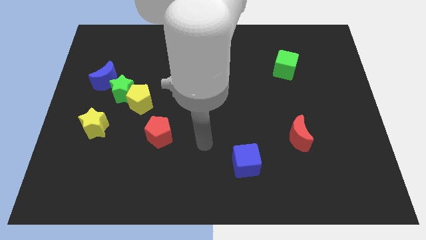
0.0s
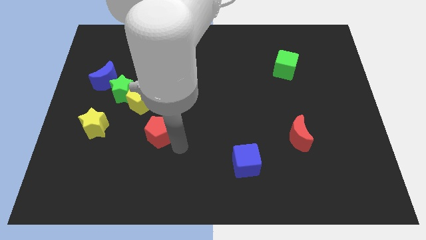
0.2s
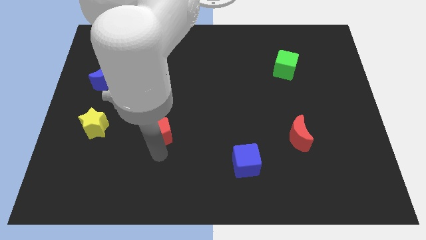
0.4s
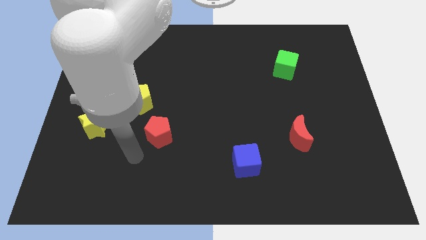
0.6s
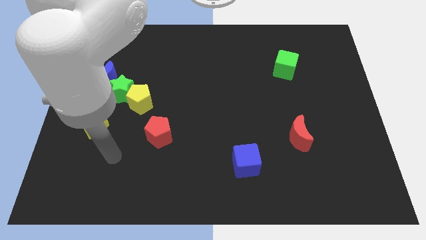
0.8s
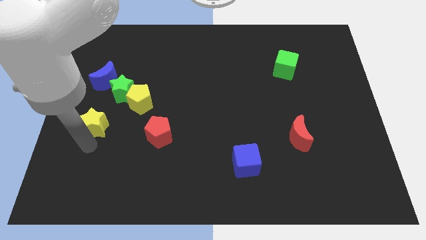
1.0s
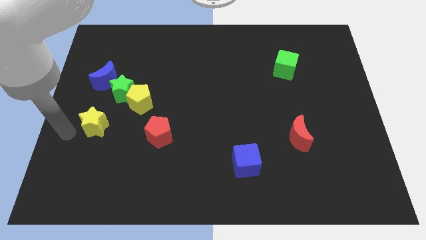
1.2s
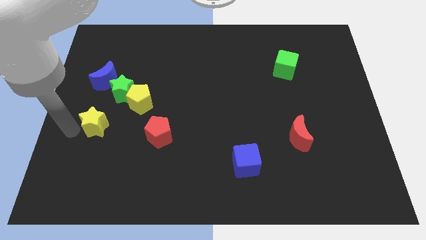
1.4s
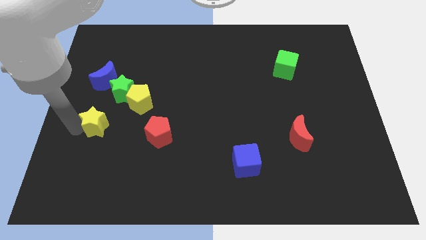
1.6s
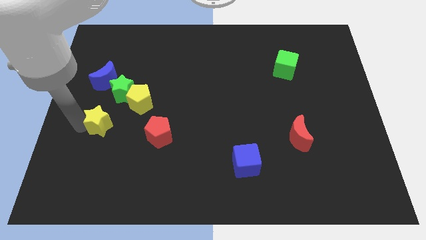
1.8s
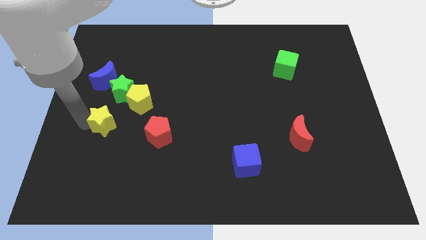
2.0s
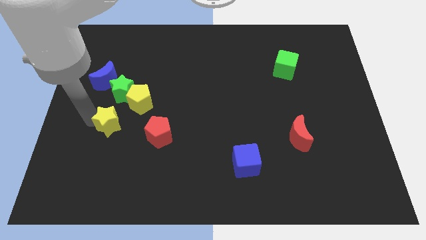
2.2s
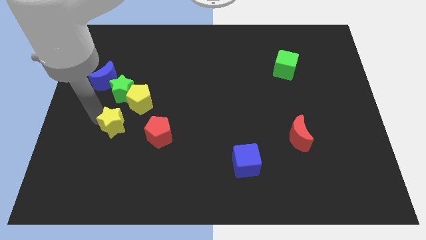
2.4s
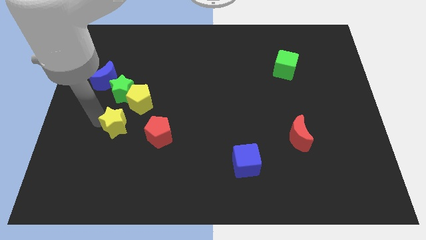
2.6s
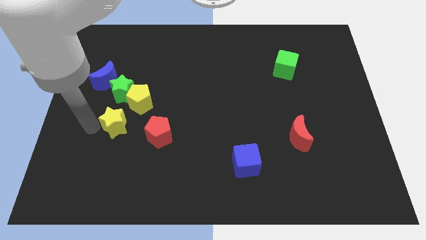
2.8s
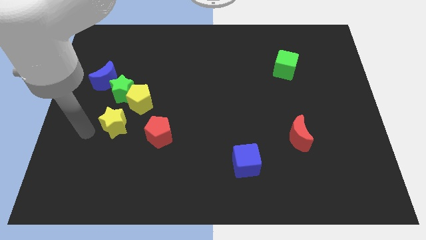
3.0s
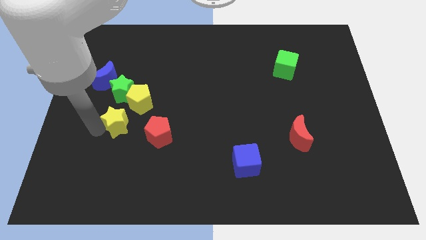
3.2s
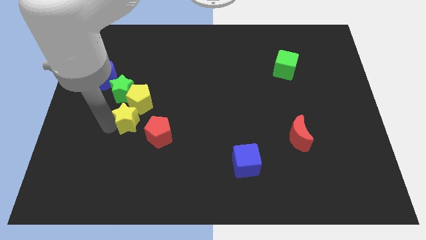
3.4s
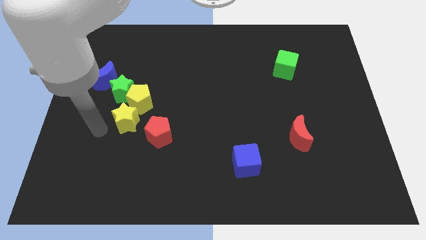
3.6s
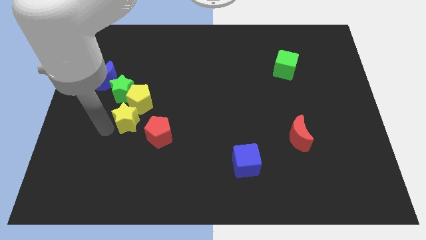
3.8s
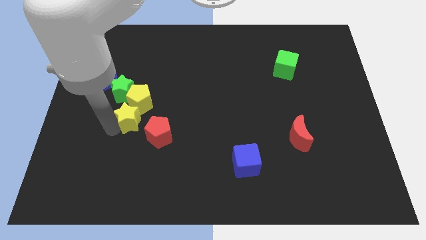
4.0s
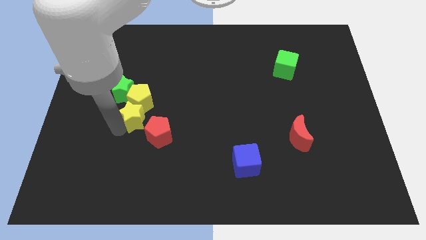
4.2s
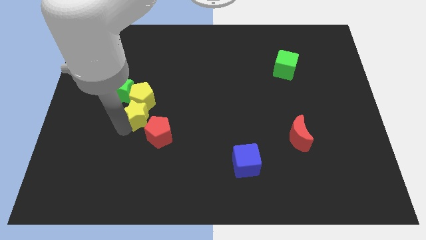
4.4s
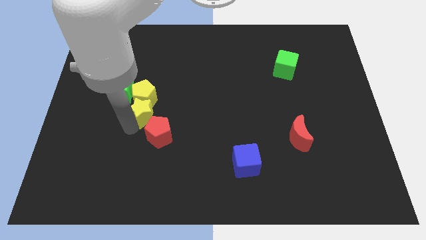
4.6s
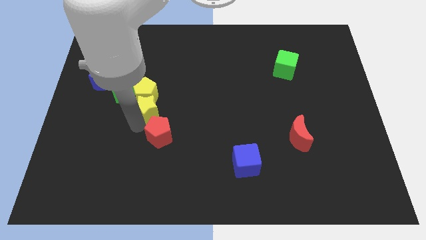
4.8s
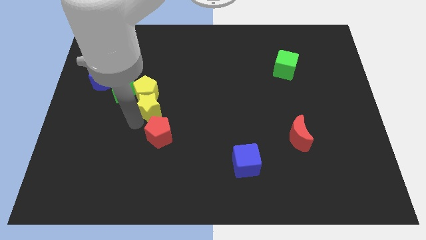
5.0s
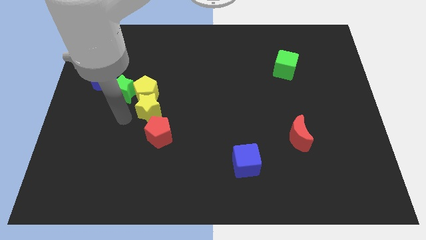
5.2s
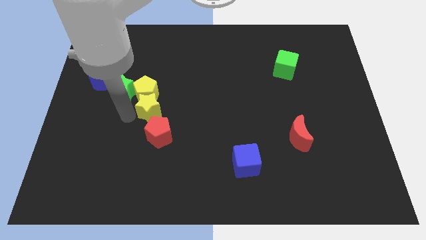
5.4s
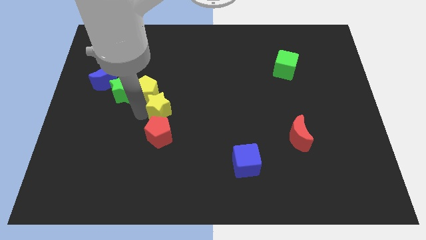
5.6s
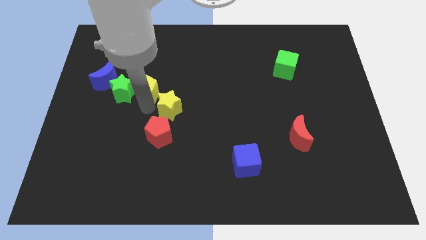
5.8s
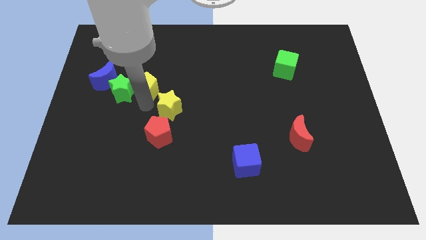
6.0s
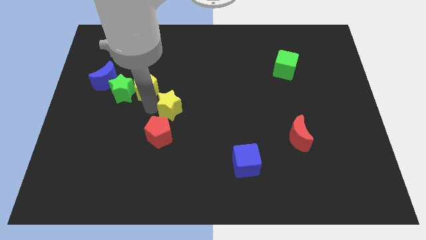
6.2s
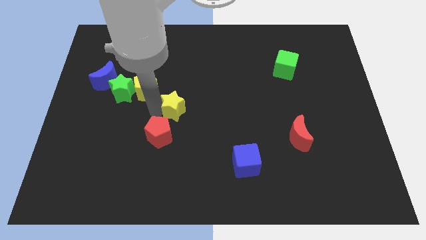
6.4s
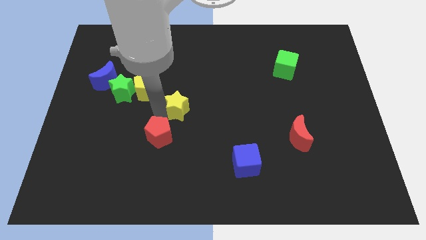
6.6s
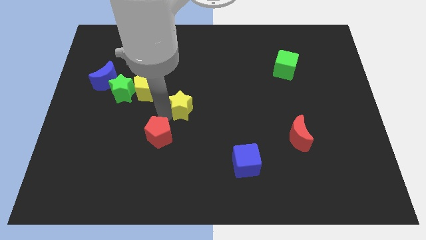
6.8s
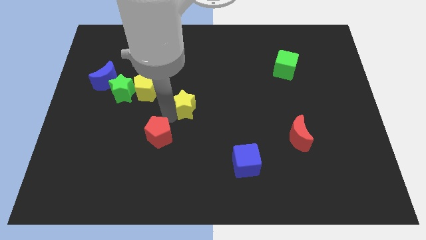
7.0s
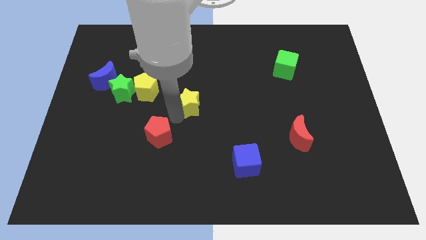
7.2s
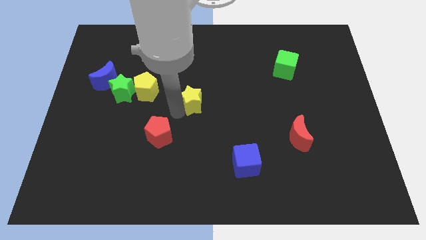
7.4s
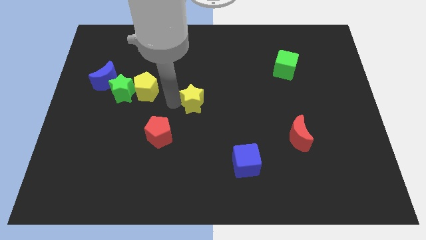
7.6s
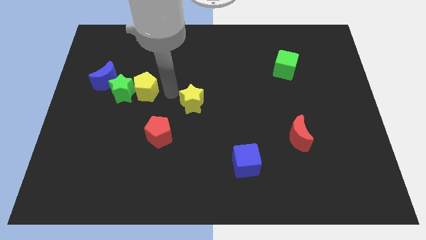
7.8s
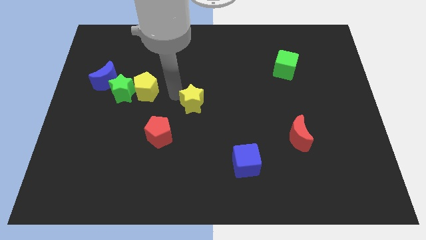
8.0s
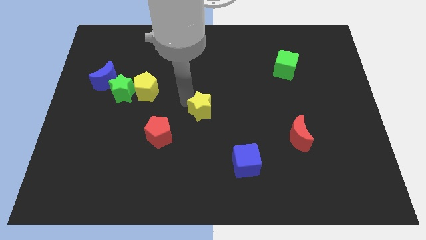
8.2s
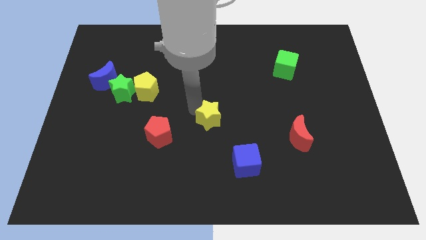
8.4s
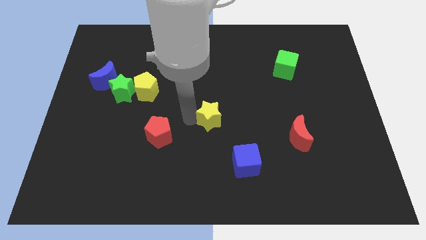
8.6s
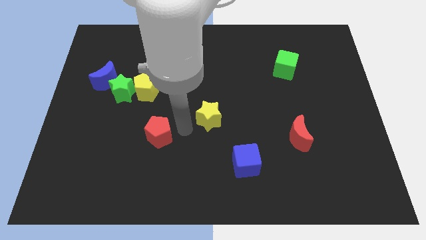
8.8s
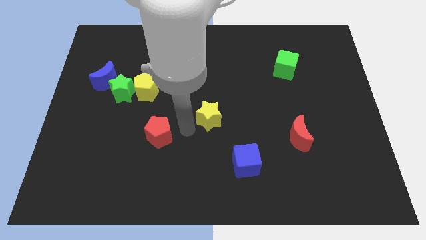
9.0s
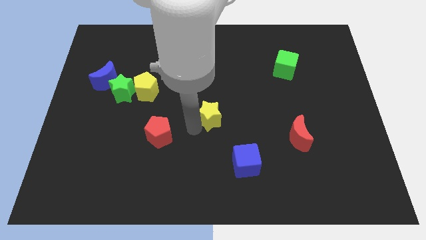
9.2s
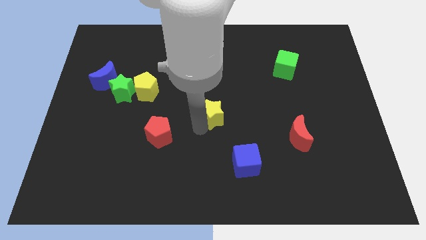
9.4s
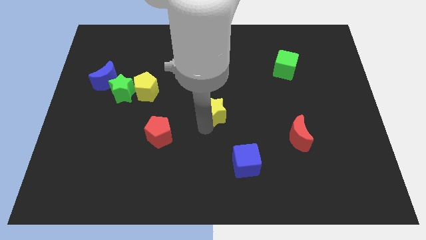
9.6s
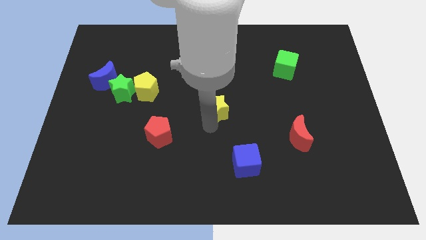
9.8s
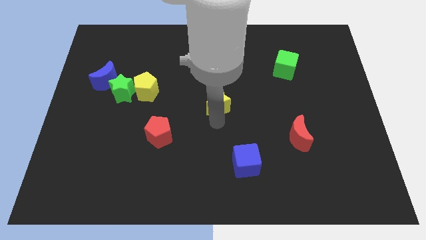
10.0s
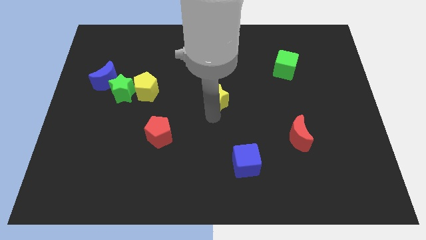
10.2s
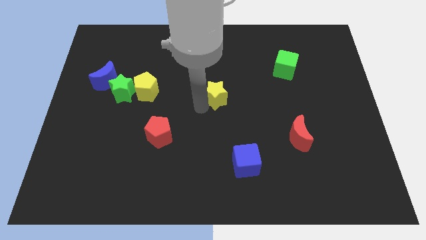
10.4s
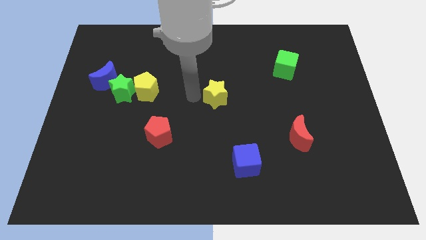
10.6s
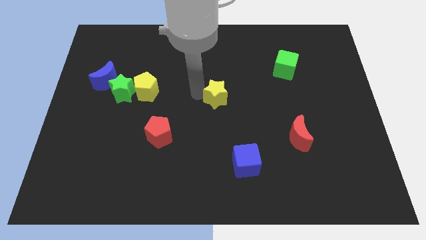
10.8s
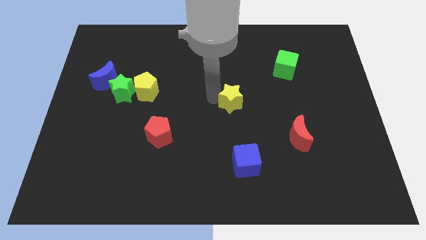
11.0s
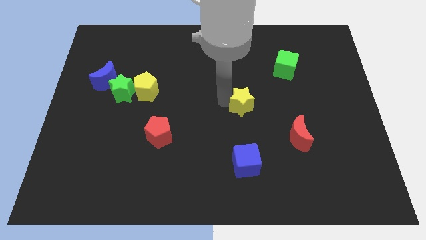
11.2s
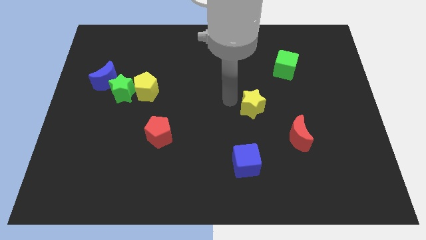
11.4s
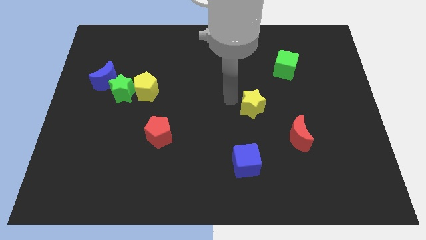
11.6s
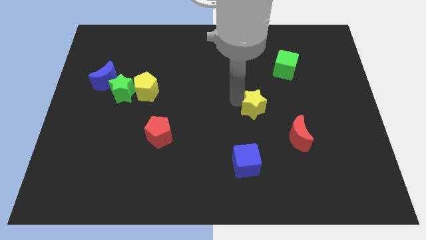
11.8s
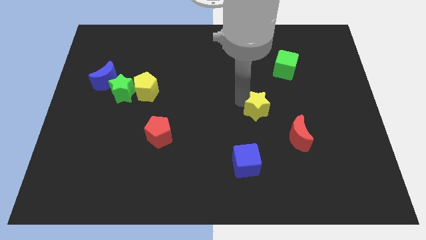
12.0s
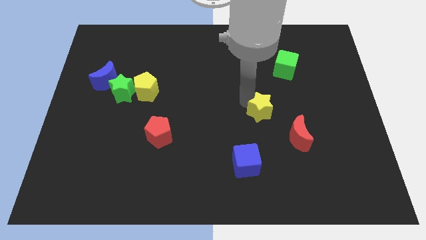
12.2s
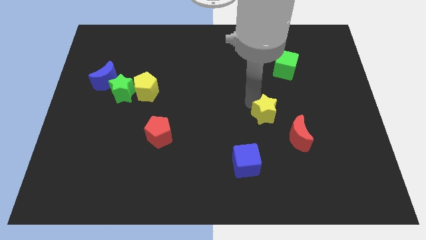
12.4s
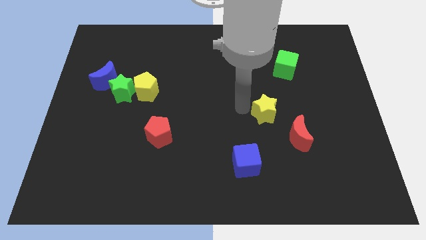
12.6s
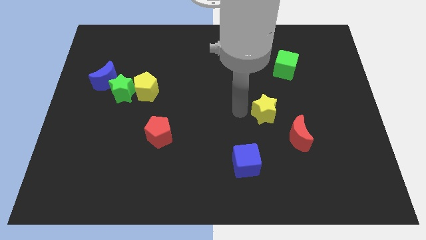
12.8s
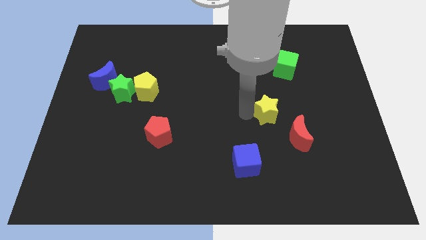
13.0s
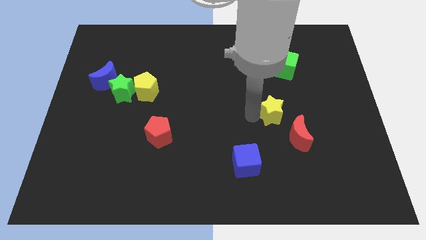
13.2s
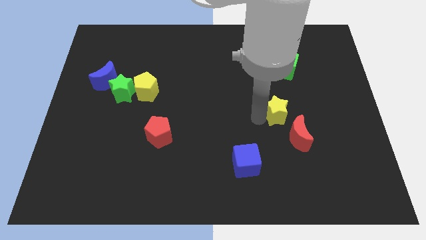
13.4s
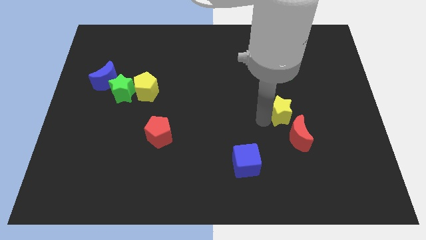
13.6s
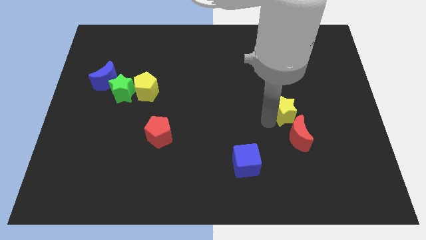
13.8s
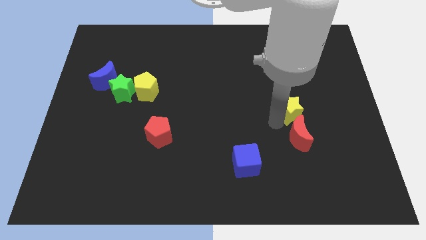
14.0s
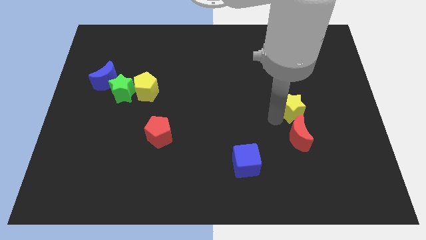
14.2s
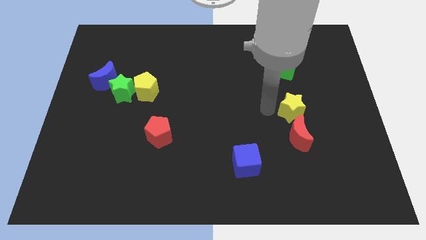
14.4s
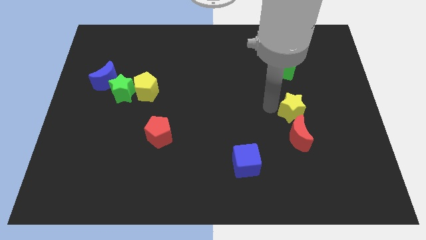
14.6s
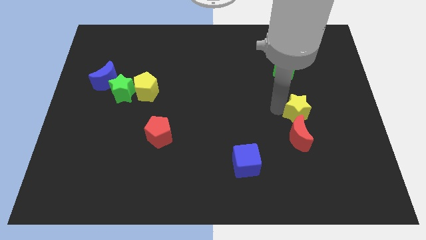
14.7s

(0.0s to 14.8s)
put the yellow star to the top right side of the red moon
